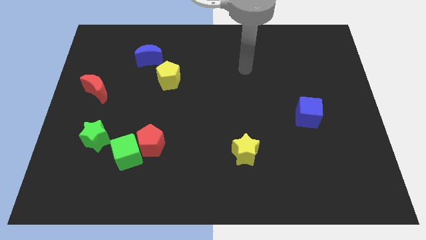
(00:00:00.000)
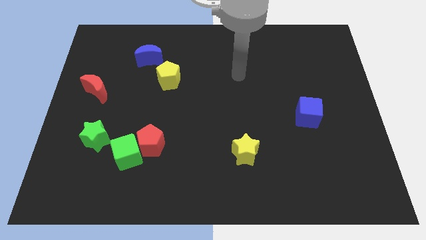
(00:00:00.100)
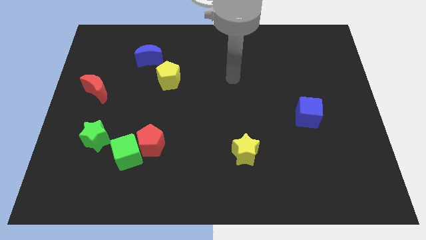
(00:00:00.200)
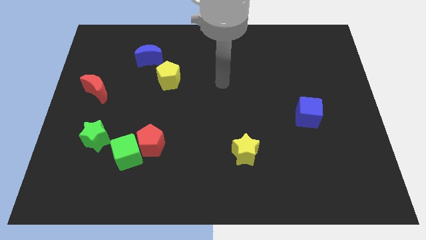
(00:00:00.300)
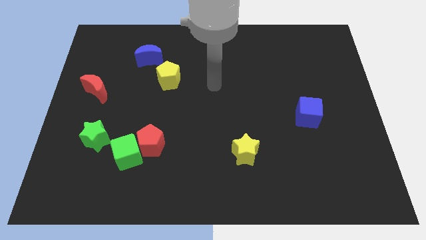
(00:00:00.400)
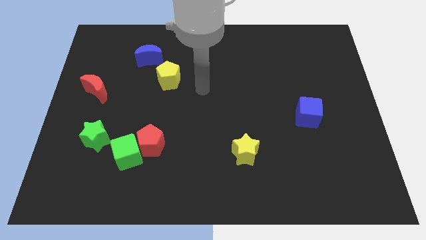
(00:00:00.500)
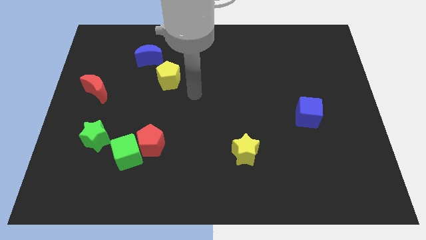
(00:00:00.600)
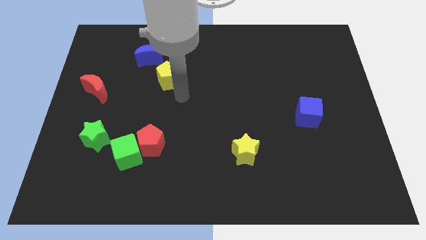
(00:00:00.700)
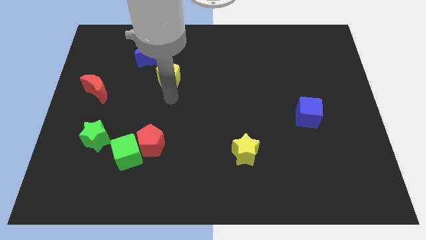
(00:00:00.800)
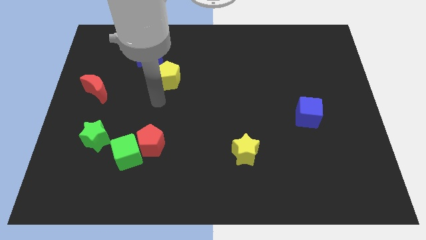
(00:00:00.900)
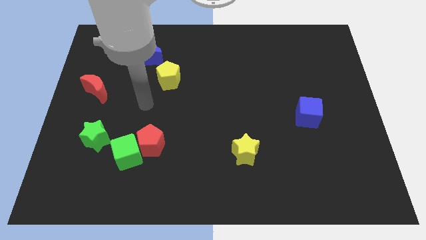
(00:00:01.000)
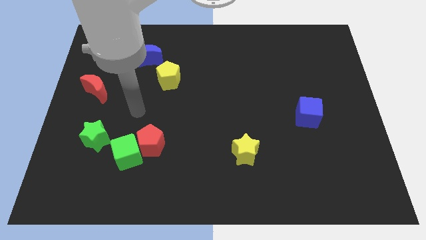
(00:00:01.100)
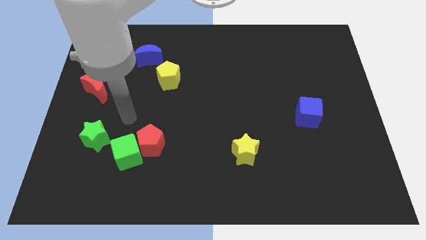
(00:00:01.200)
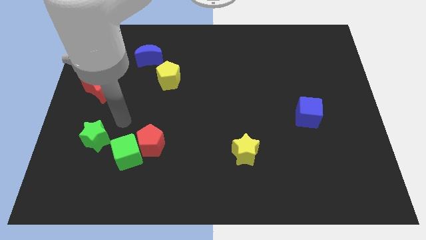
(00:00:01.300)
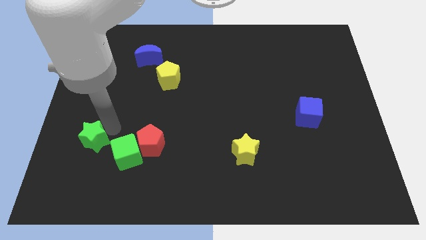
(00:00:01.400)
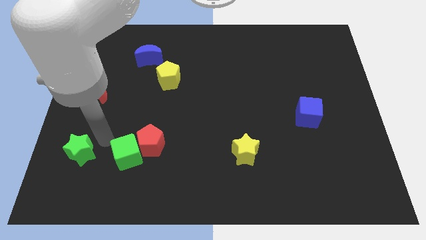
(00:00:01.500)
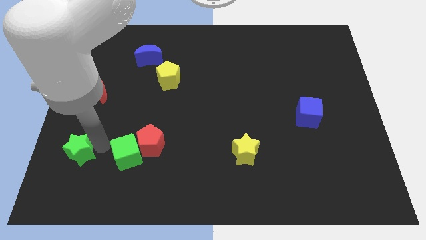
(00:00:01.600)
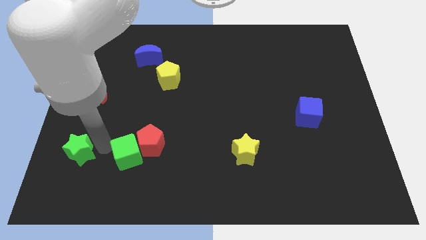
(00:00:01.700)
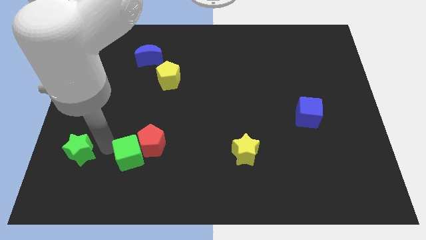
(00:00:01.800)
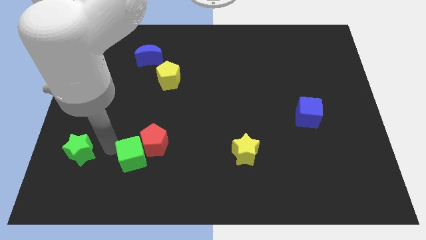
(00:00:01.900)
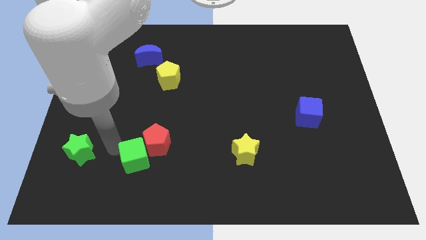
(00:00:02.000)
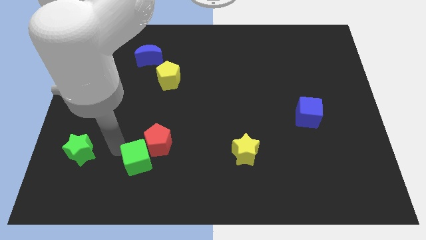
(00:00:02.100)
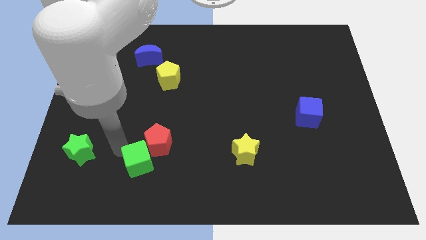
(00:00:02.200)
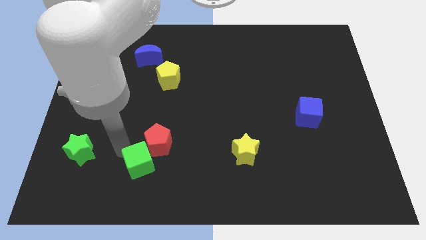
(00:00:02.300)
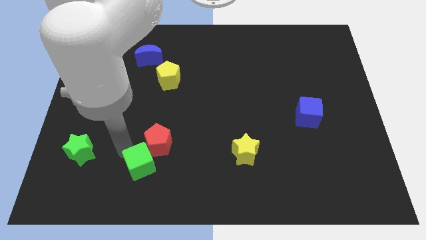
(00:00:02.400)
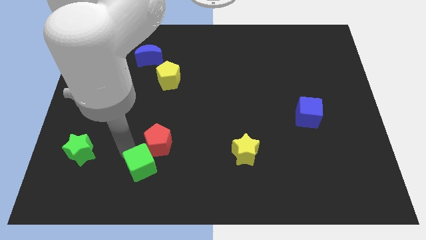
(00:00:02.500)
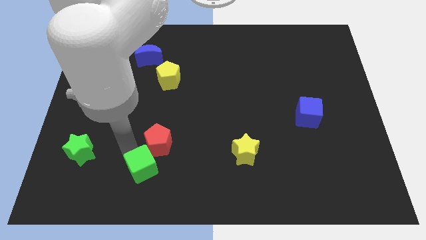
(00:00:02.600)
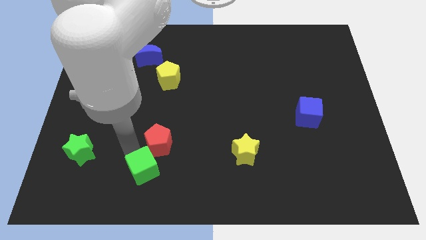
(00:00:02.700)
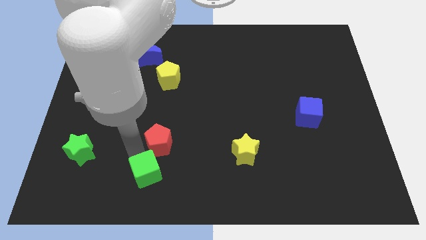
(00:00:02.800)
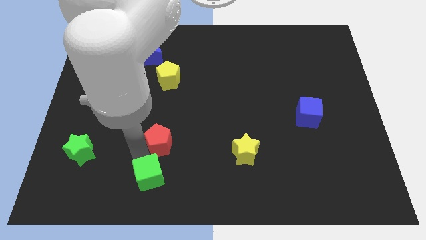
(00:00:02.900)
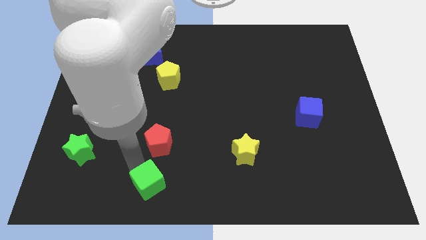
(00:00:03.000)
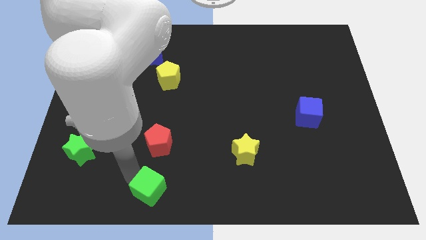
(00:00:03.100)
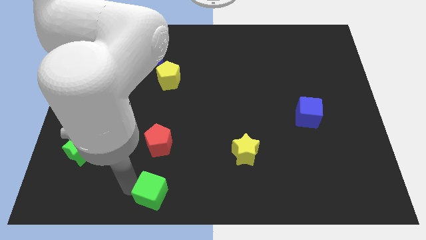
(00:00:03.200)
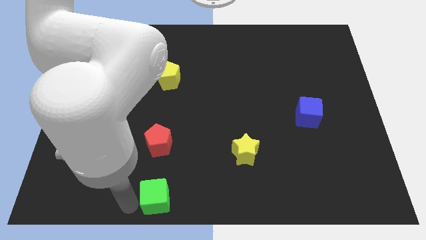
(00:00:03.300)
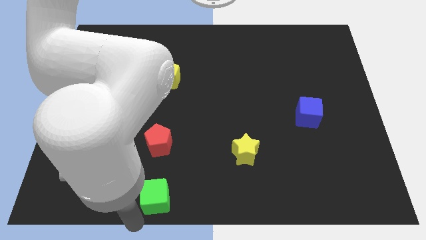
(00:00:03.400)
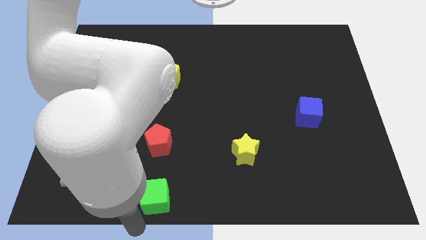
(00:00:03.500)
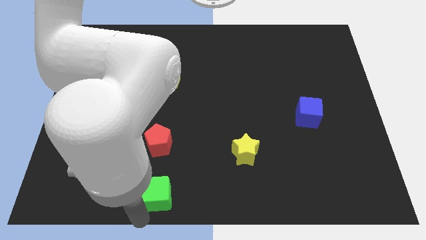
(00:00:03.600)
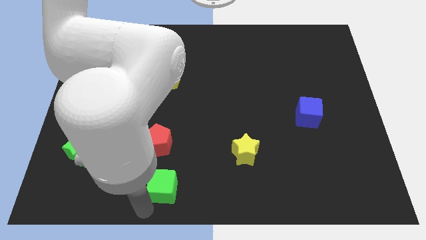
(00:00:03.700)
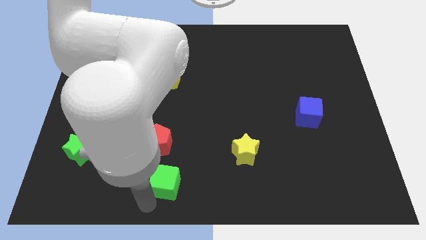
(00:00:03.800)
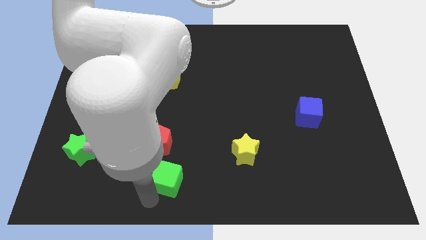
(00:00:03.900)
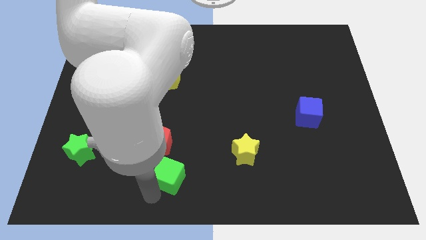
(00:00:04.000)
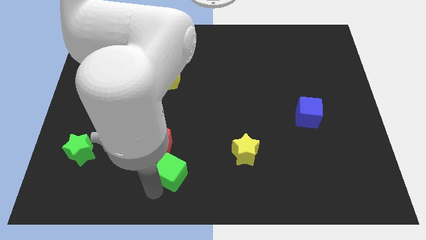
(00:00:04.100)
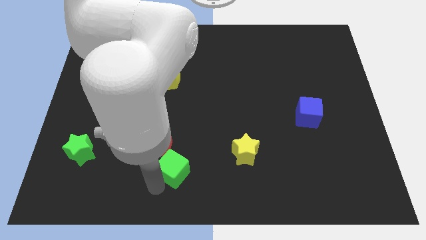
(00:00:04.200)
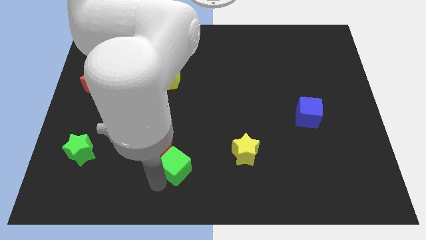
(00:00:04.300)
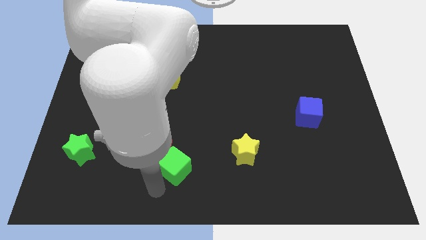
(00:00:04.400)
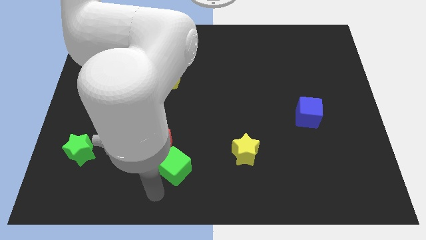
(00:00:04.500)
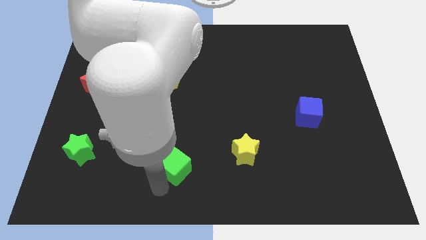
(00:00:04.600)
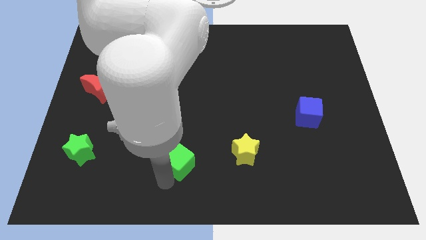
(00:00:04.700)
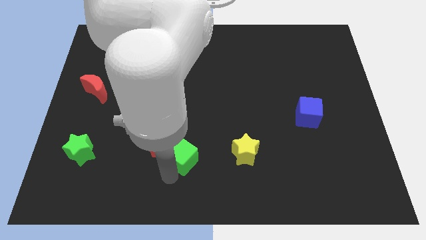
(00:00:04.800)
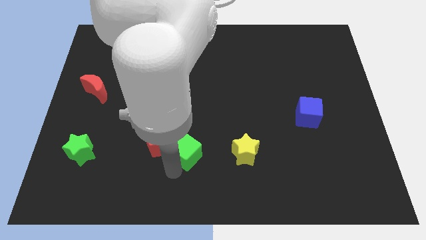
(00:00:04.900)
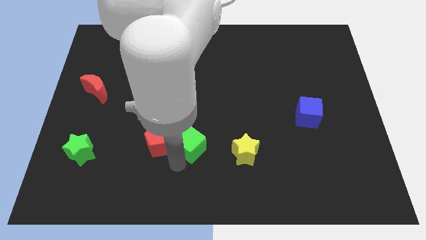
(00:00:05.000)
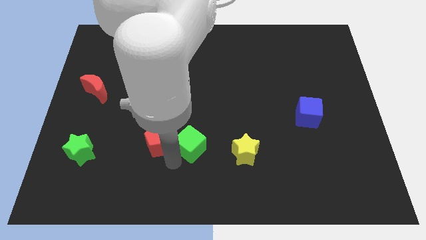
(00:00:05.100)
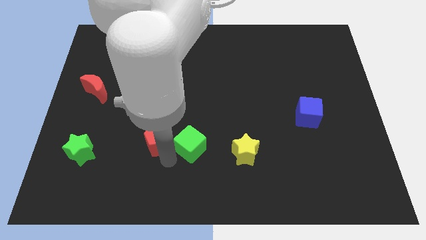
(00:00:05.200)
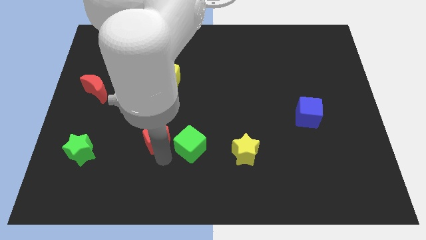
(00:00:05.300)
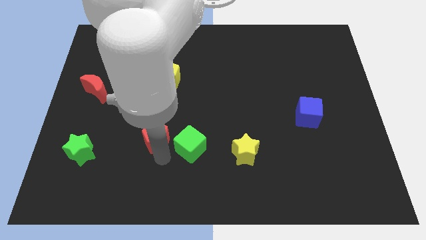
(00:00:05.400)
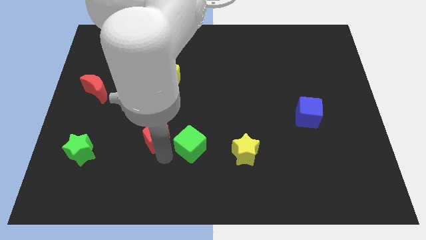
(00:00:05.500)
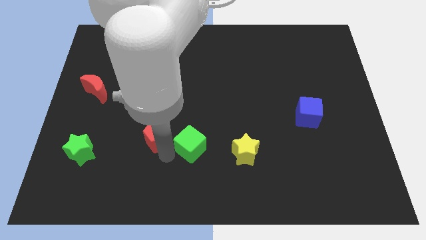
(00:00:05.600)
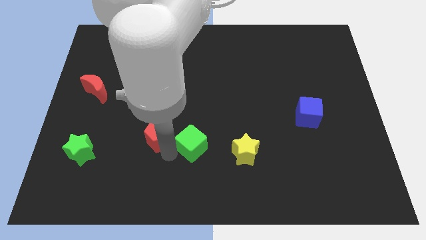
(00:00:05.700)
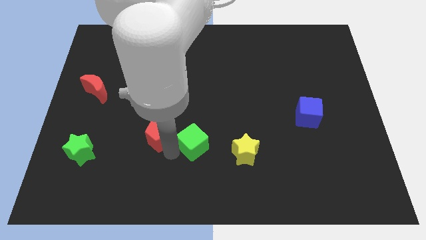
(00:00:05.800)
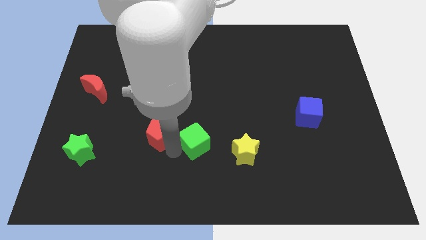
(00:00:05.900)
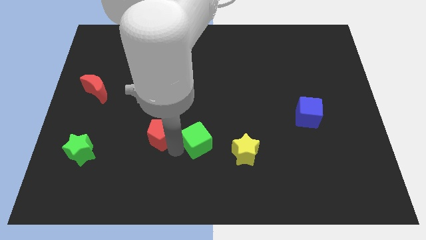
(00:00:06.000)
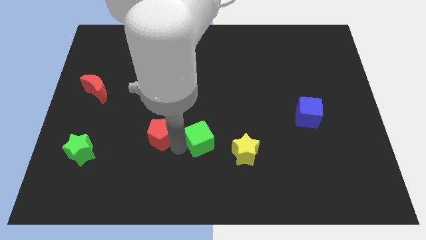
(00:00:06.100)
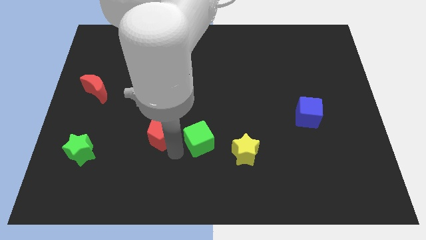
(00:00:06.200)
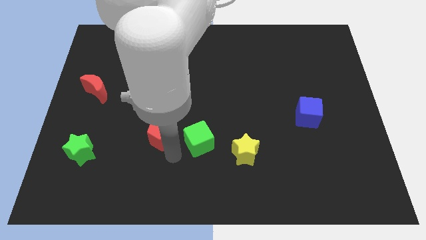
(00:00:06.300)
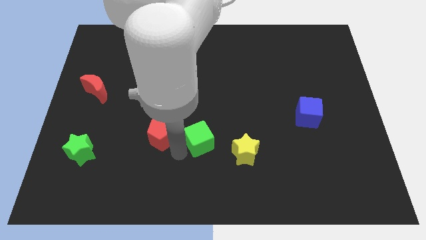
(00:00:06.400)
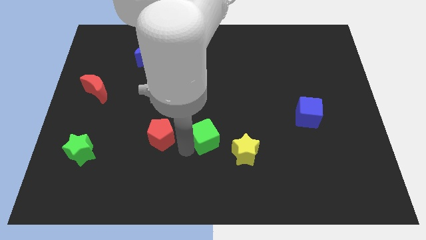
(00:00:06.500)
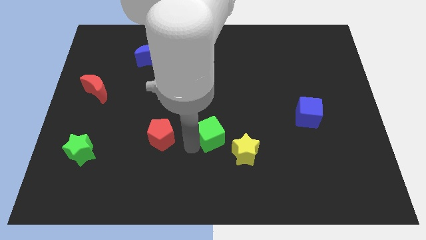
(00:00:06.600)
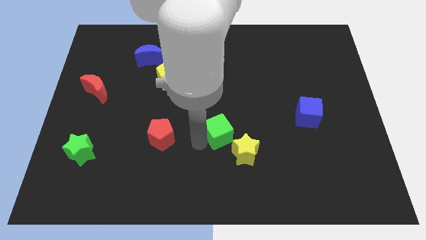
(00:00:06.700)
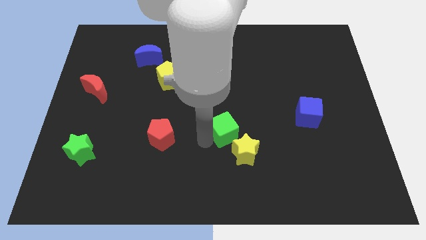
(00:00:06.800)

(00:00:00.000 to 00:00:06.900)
push the green cube to the top side of the yellow star
